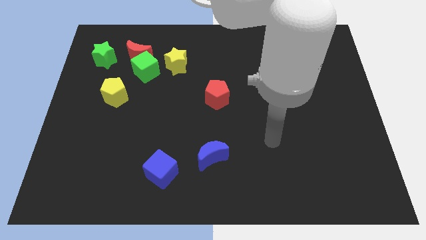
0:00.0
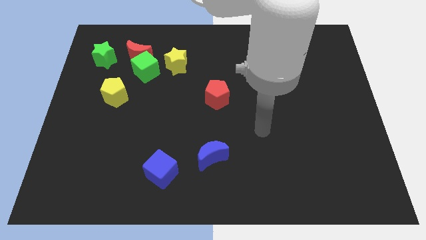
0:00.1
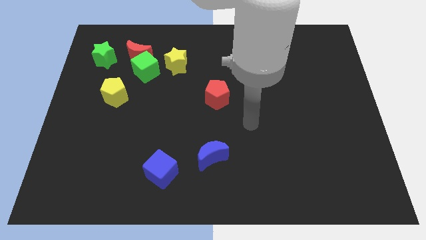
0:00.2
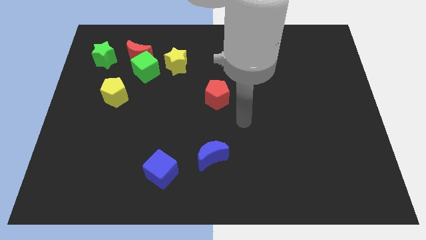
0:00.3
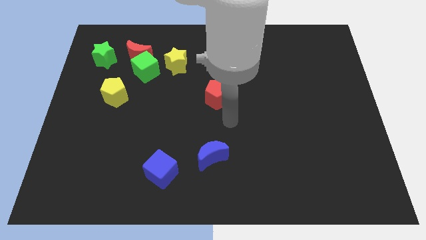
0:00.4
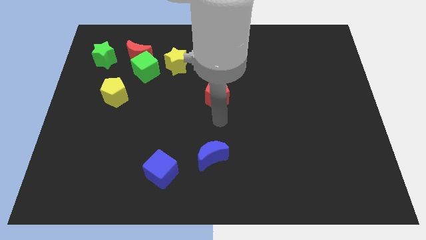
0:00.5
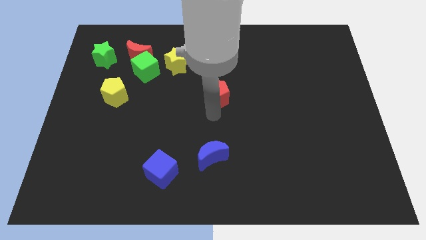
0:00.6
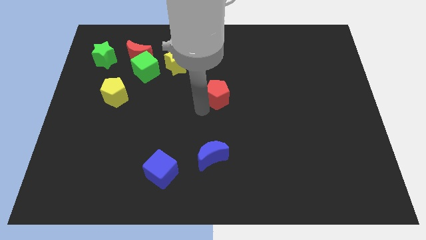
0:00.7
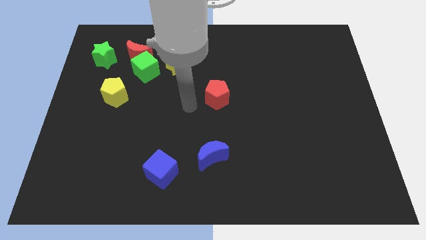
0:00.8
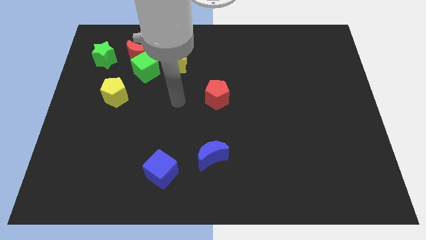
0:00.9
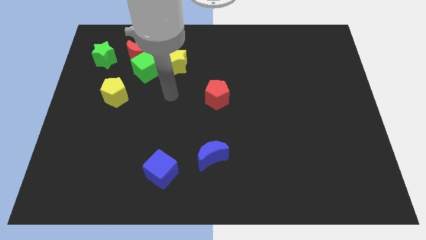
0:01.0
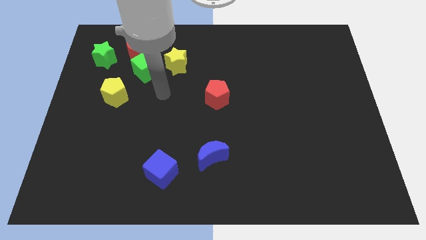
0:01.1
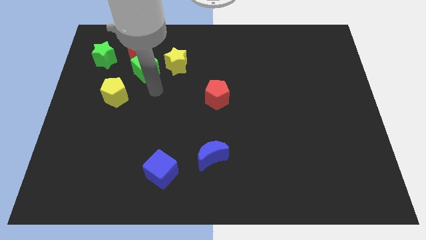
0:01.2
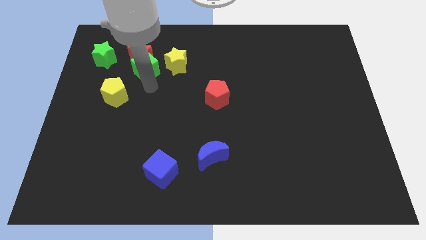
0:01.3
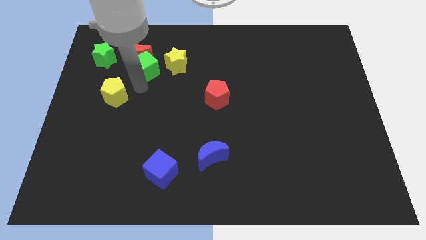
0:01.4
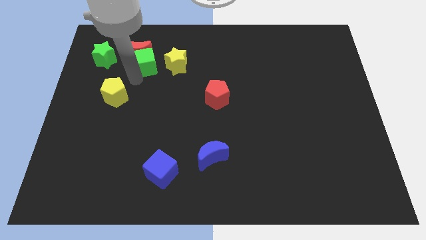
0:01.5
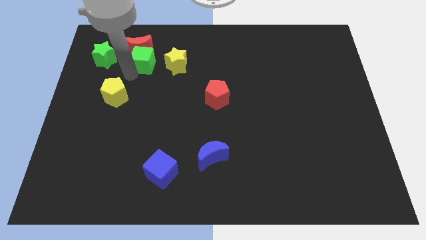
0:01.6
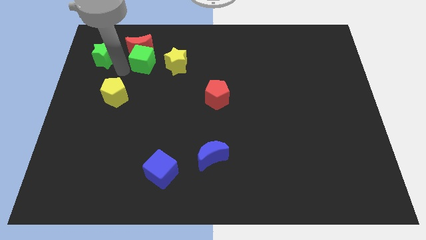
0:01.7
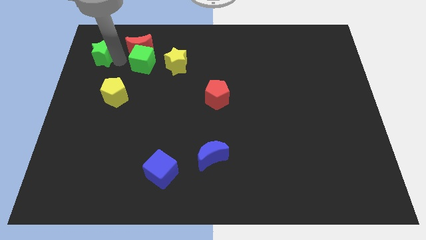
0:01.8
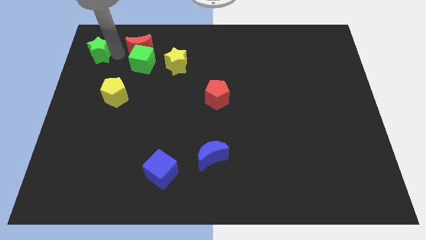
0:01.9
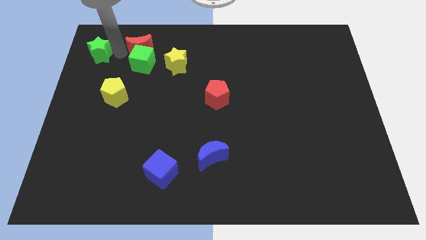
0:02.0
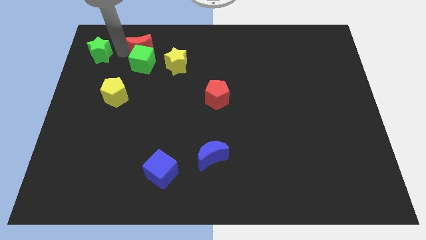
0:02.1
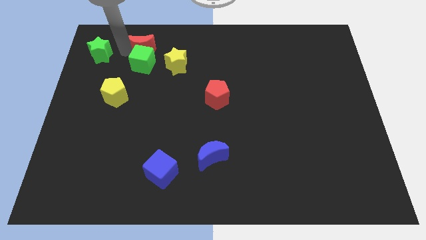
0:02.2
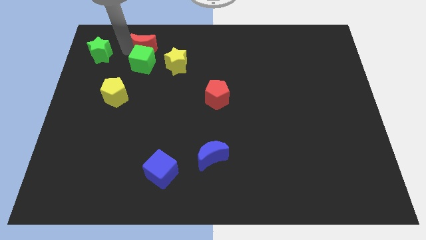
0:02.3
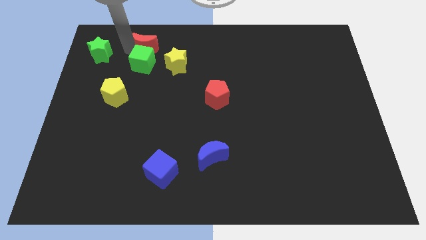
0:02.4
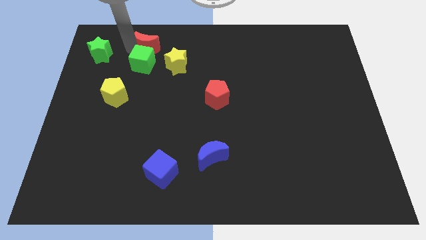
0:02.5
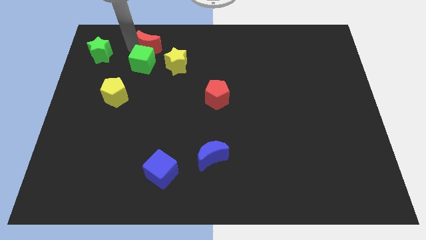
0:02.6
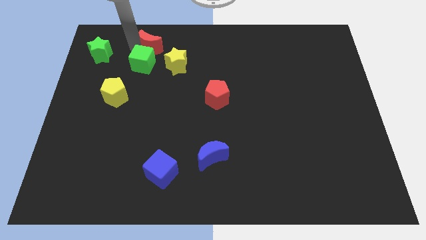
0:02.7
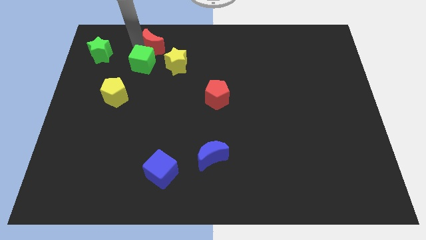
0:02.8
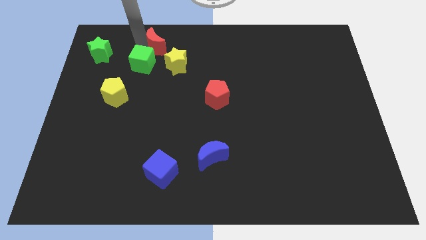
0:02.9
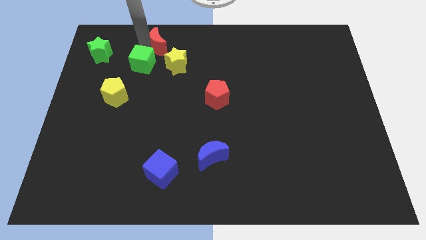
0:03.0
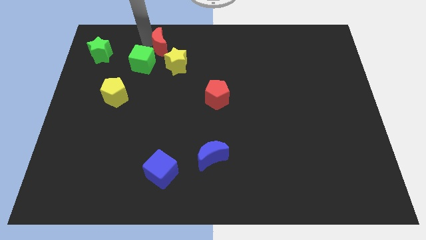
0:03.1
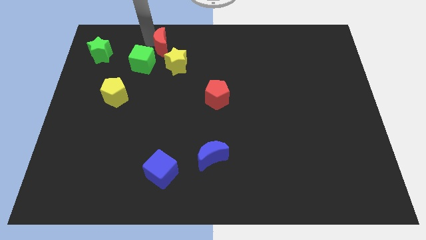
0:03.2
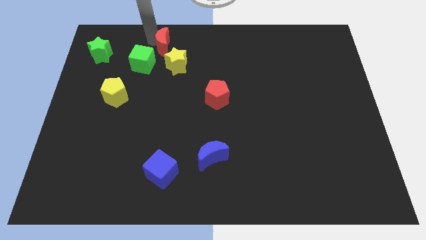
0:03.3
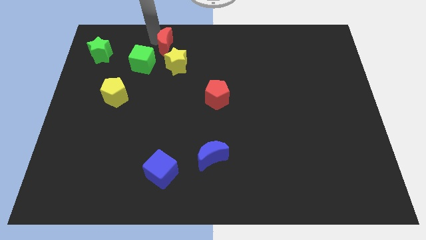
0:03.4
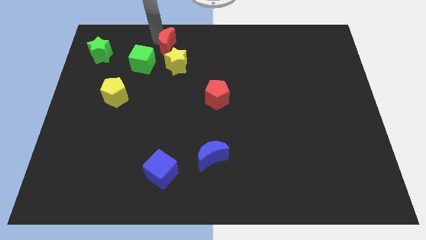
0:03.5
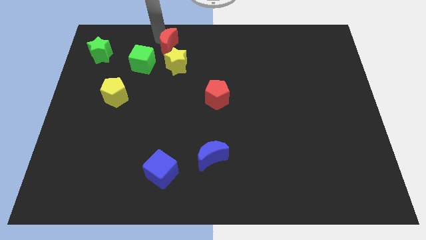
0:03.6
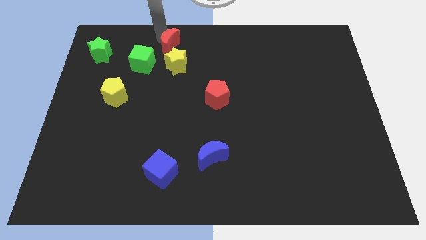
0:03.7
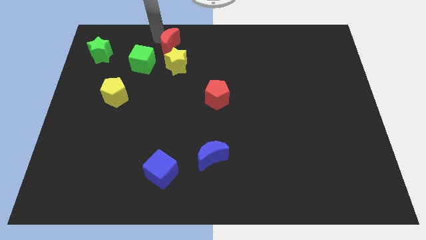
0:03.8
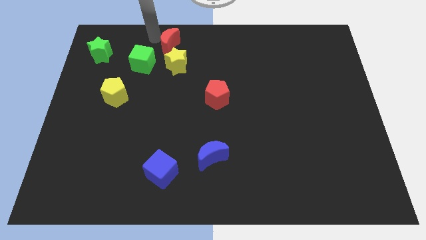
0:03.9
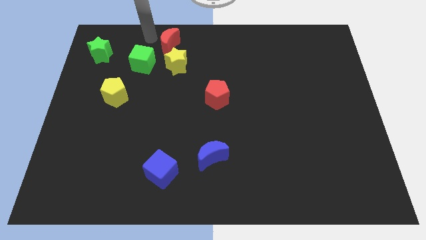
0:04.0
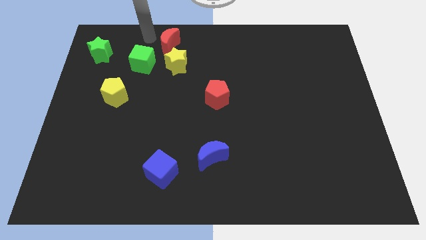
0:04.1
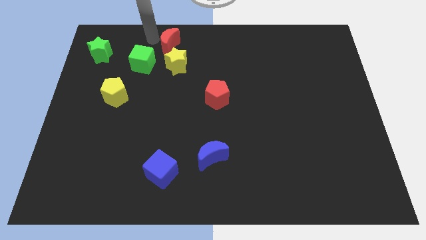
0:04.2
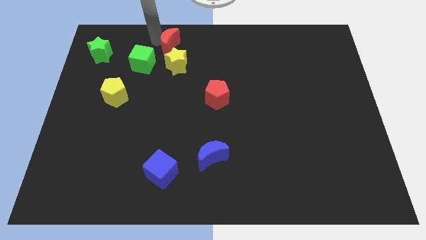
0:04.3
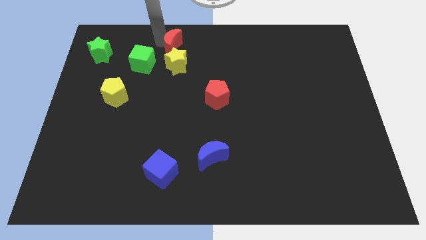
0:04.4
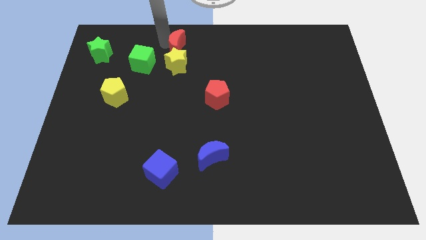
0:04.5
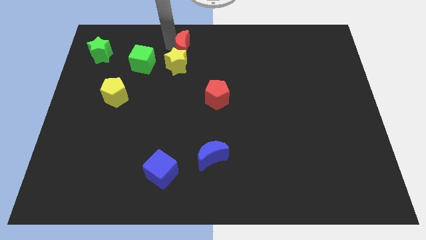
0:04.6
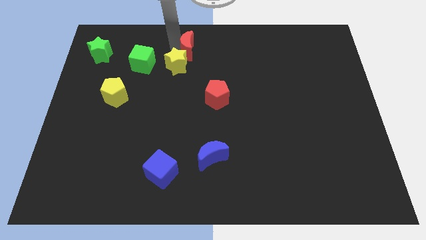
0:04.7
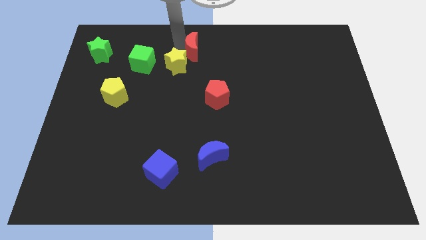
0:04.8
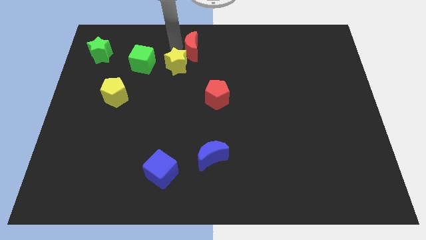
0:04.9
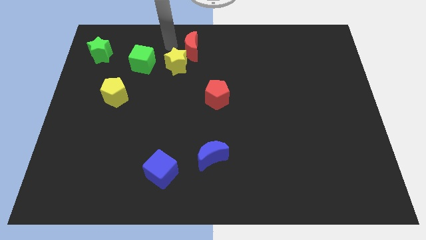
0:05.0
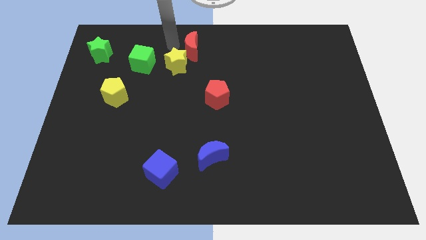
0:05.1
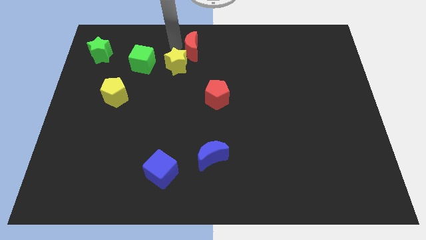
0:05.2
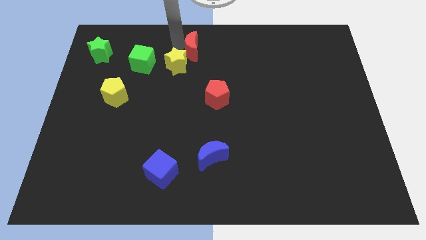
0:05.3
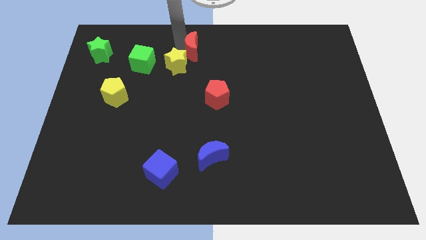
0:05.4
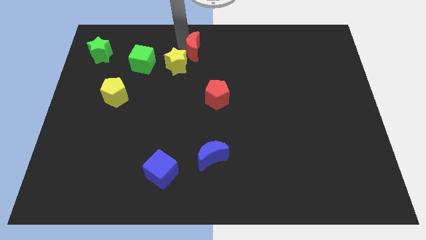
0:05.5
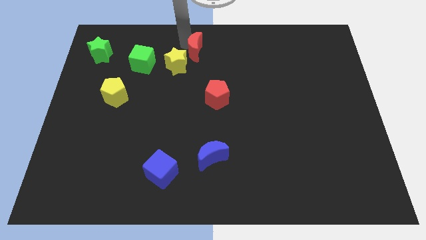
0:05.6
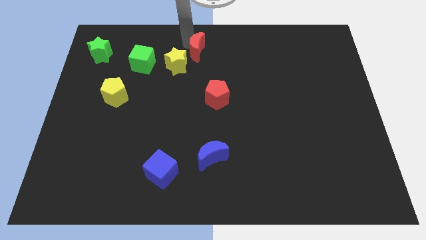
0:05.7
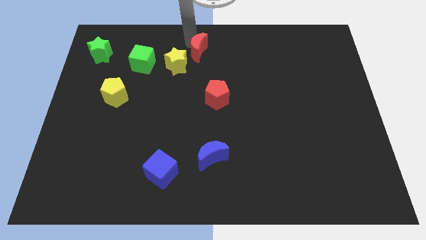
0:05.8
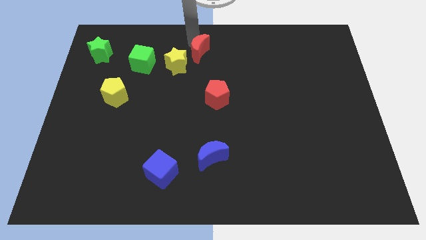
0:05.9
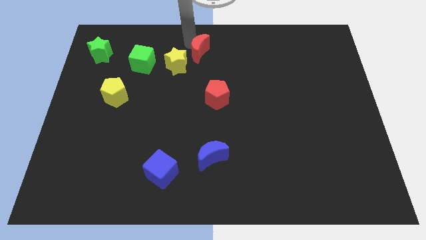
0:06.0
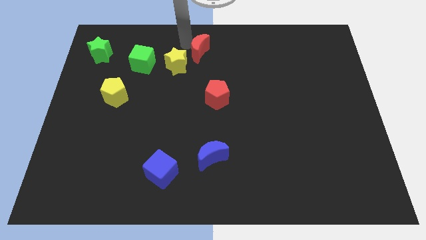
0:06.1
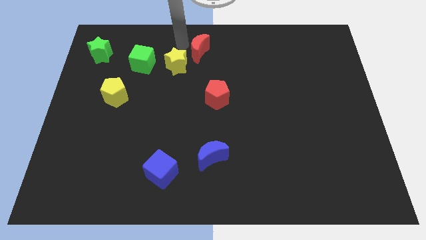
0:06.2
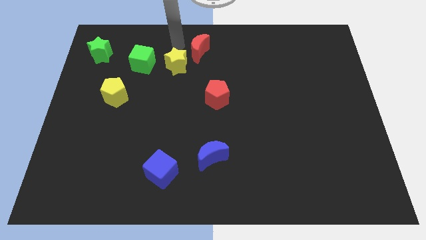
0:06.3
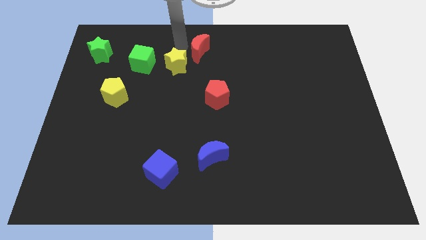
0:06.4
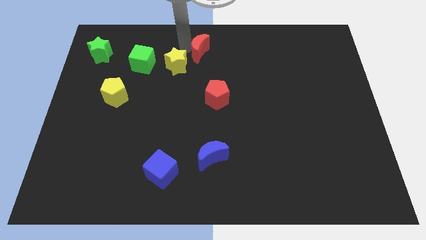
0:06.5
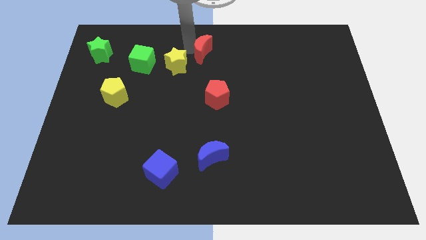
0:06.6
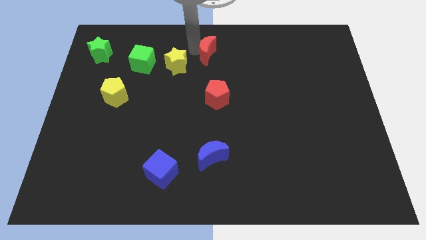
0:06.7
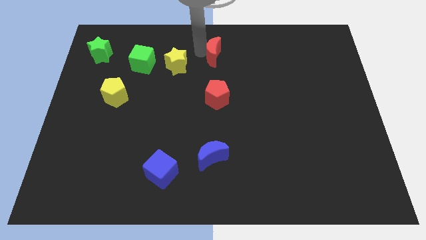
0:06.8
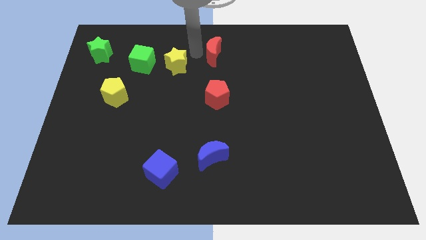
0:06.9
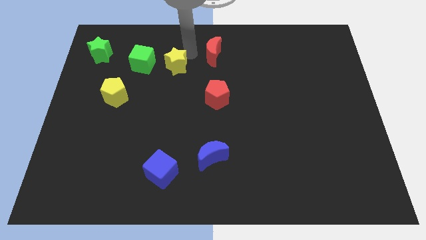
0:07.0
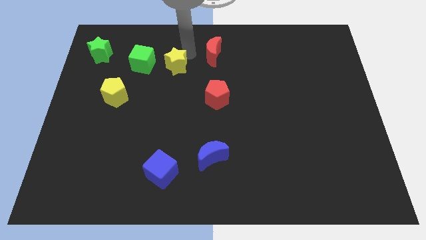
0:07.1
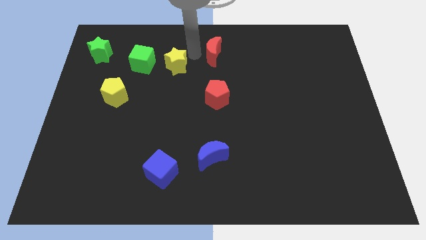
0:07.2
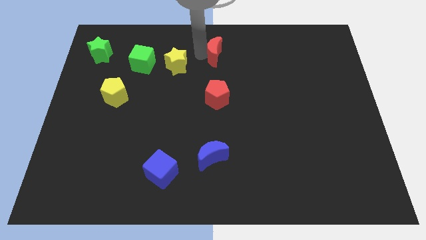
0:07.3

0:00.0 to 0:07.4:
push the red moon right

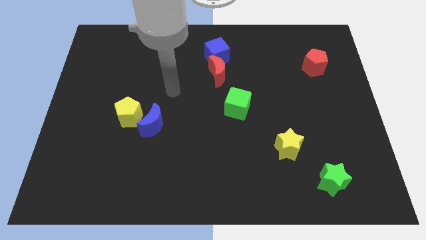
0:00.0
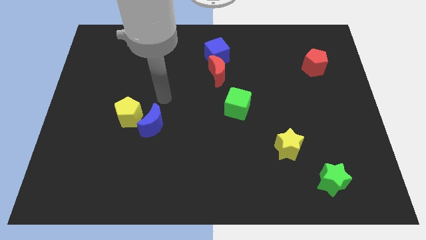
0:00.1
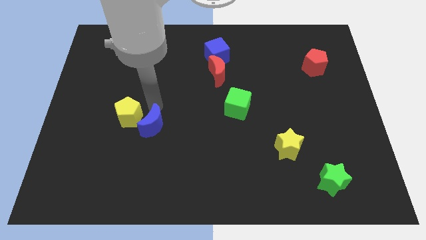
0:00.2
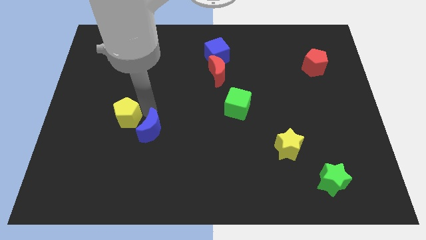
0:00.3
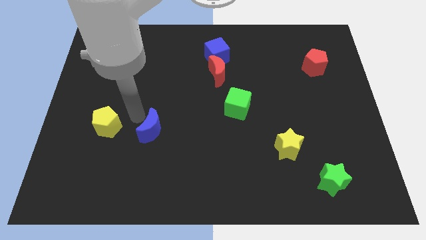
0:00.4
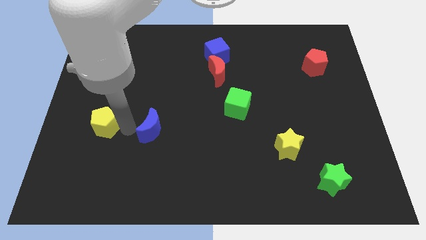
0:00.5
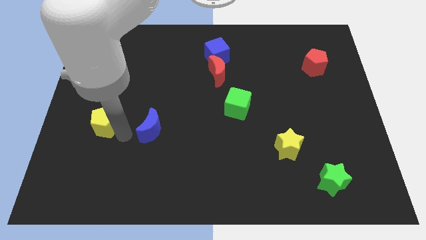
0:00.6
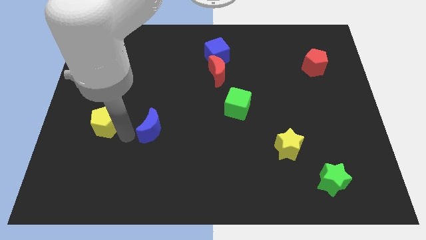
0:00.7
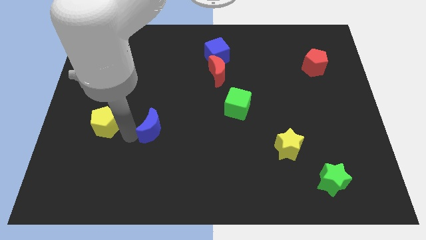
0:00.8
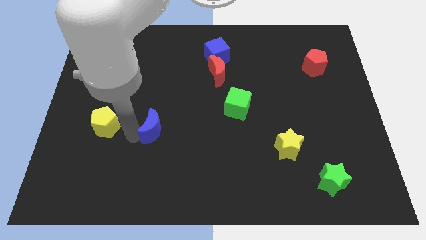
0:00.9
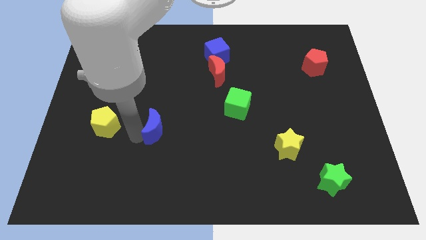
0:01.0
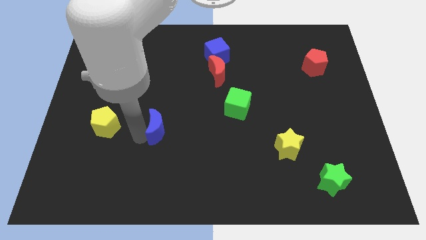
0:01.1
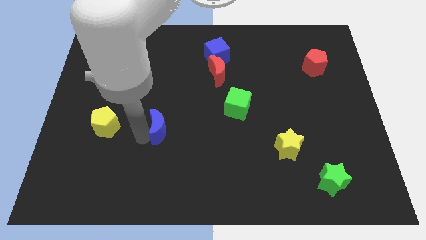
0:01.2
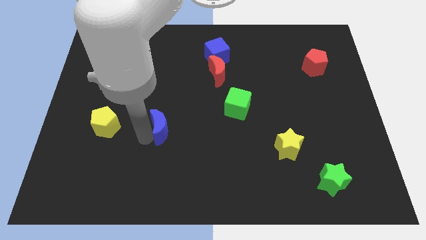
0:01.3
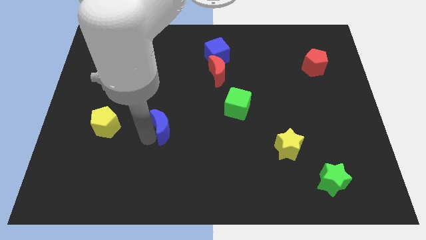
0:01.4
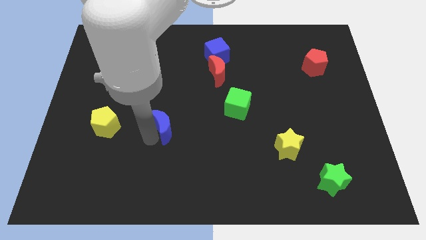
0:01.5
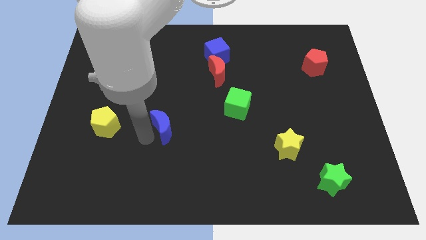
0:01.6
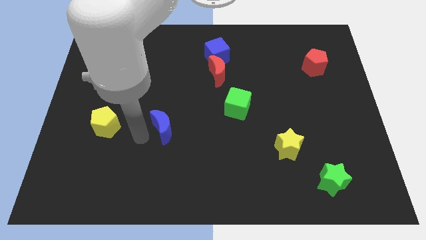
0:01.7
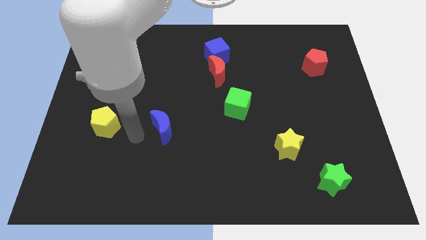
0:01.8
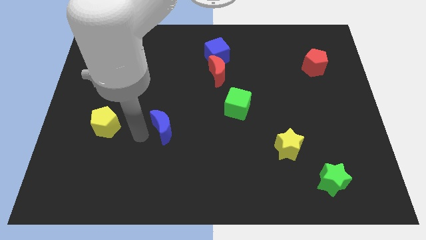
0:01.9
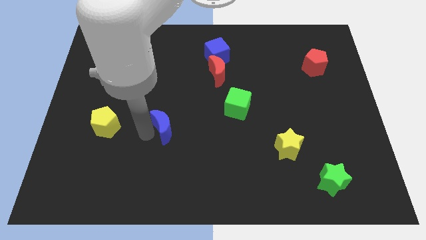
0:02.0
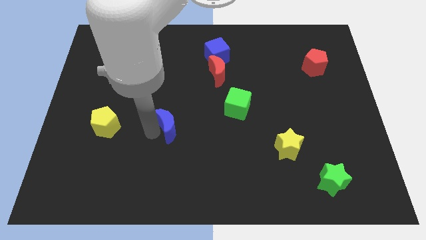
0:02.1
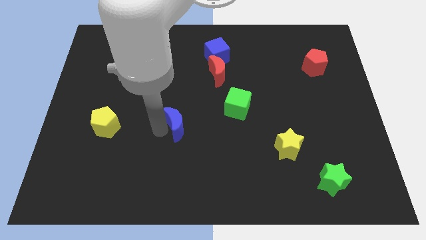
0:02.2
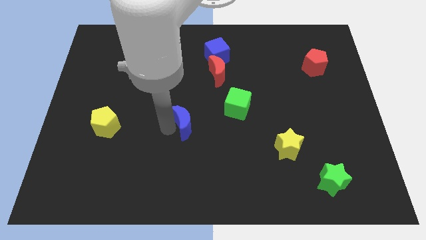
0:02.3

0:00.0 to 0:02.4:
push the blue moon a bit right
